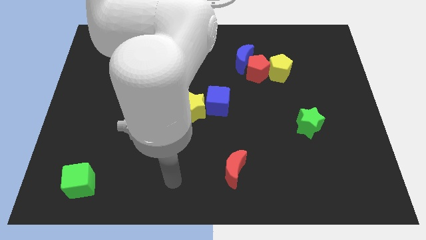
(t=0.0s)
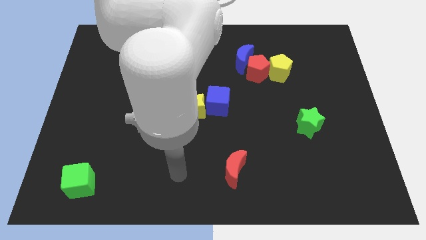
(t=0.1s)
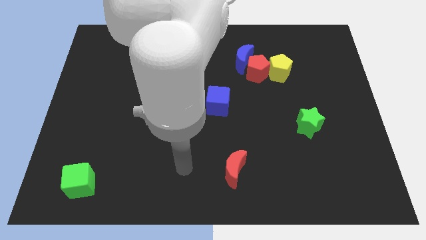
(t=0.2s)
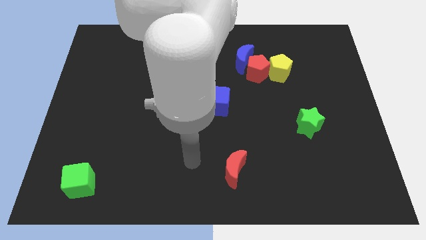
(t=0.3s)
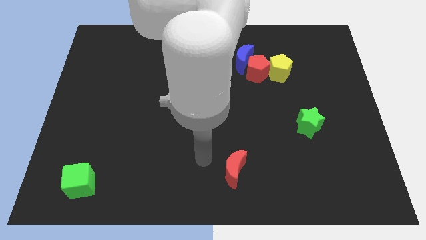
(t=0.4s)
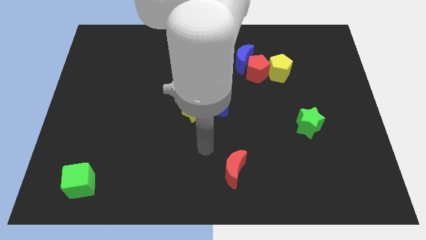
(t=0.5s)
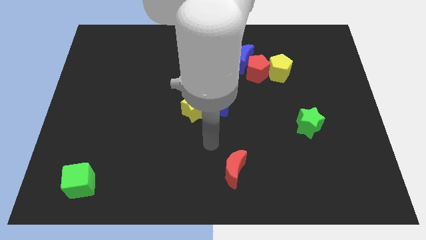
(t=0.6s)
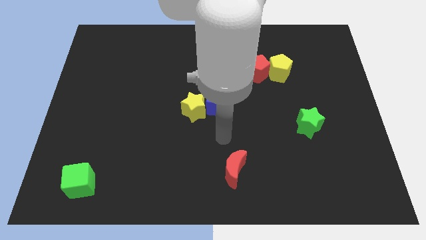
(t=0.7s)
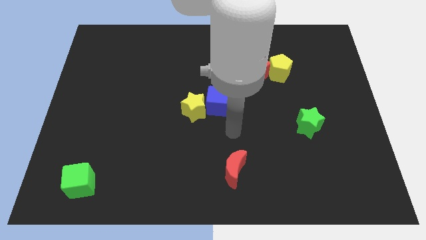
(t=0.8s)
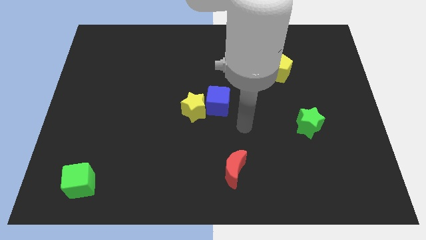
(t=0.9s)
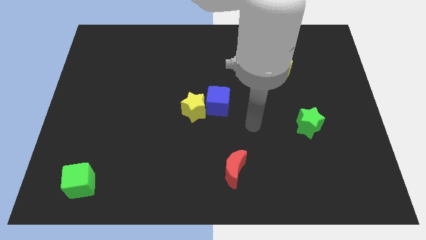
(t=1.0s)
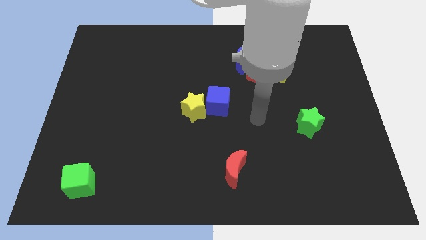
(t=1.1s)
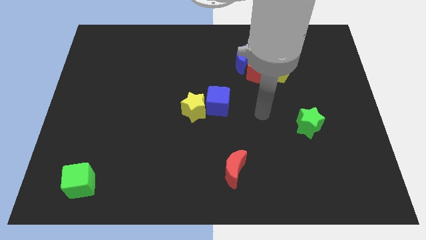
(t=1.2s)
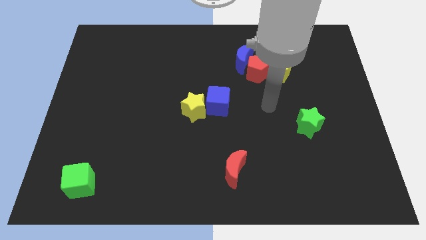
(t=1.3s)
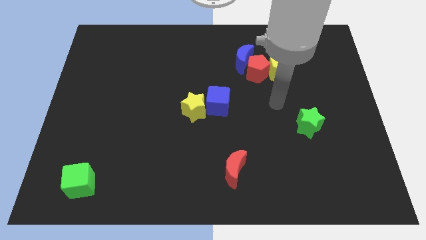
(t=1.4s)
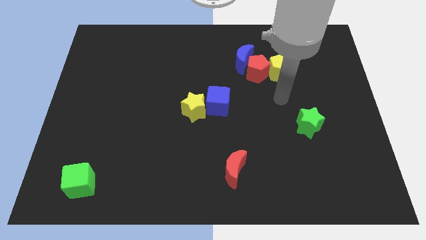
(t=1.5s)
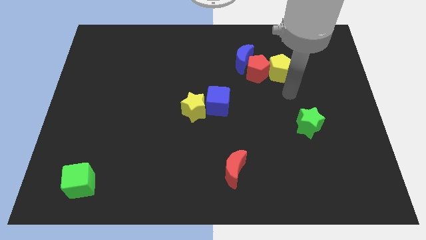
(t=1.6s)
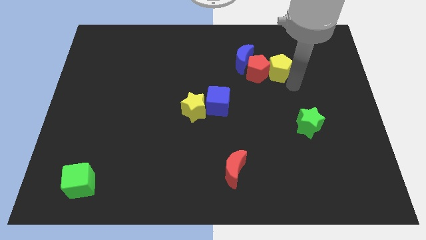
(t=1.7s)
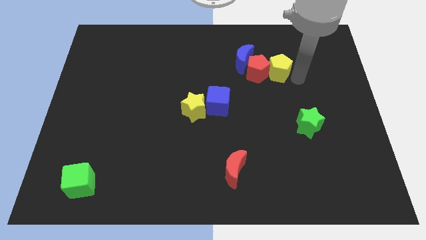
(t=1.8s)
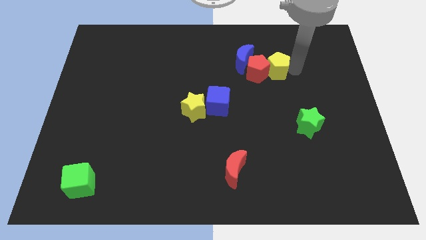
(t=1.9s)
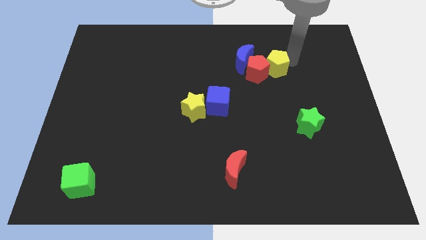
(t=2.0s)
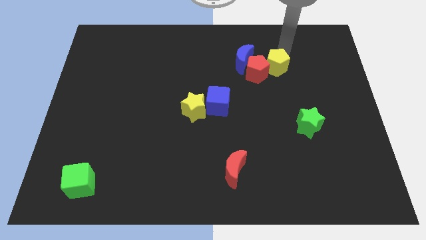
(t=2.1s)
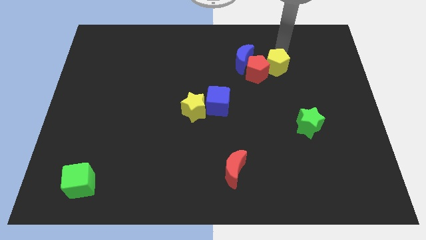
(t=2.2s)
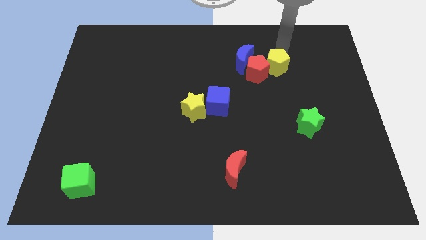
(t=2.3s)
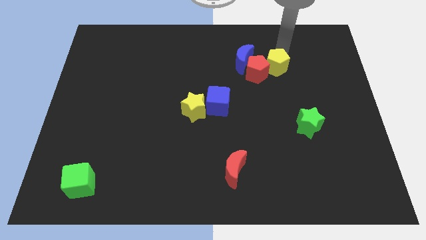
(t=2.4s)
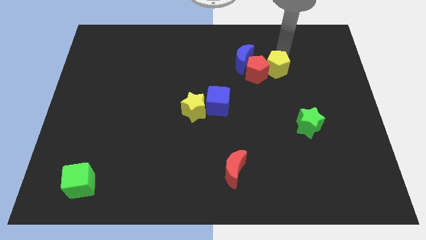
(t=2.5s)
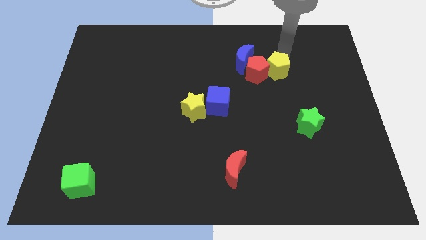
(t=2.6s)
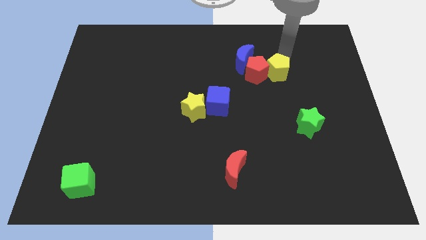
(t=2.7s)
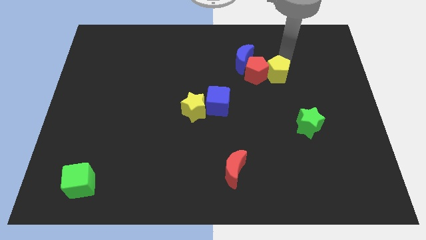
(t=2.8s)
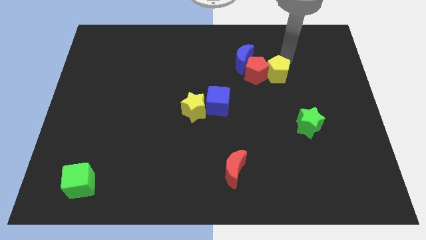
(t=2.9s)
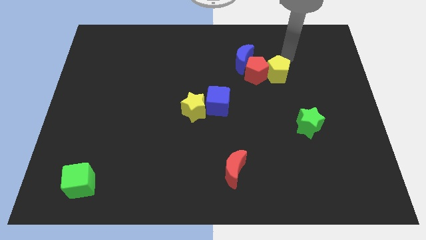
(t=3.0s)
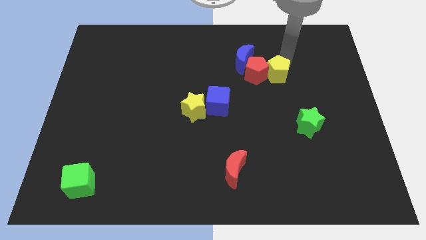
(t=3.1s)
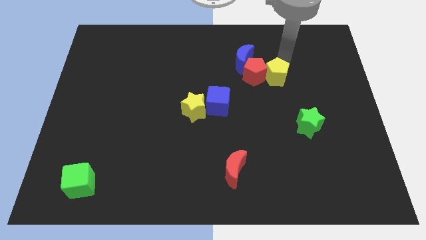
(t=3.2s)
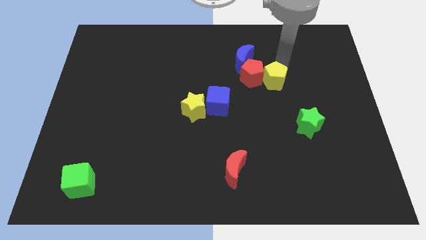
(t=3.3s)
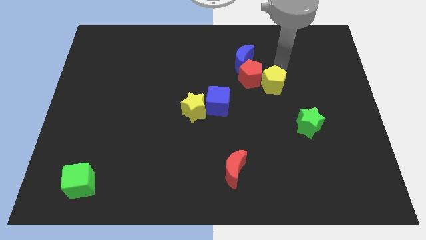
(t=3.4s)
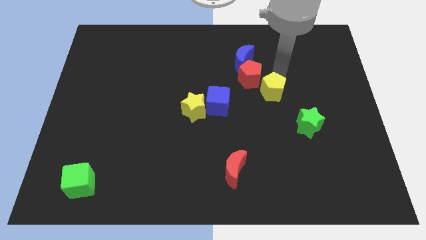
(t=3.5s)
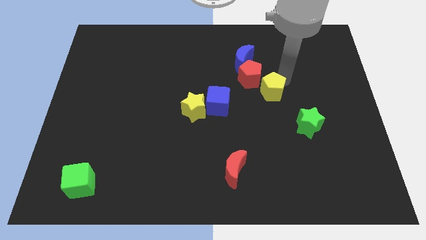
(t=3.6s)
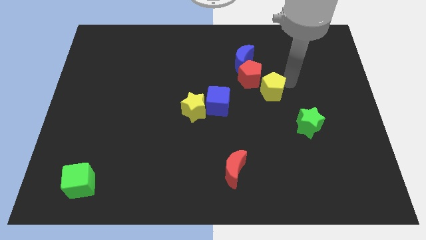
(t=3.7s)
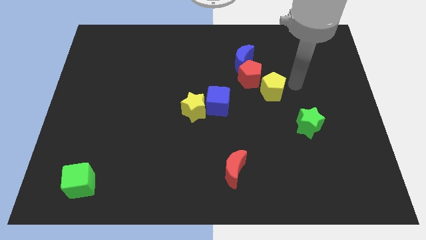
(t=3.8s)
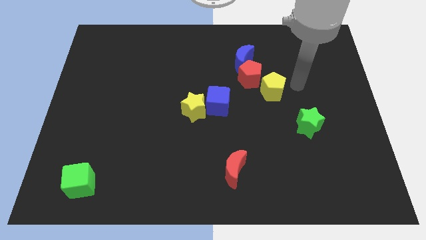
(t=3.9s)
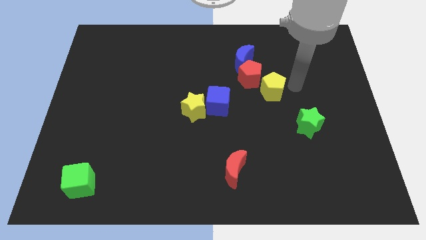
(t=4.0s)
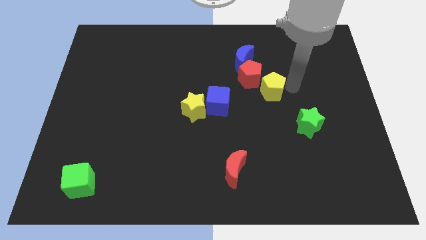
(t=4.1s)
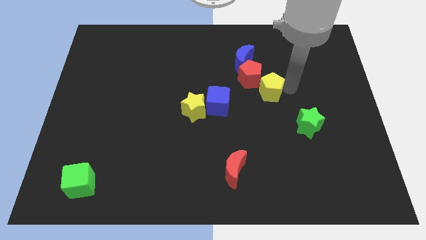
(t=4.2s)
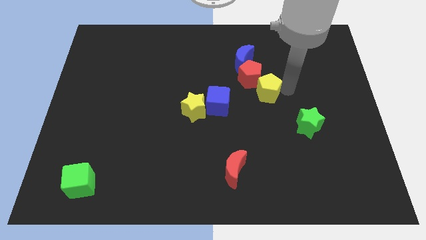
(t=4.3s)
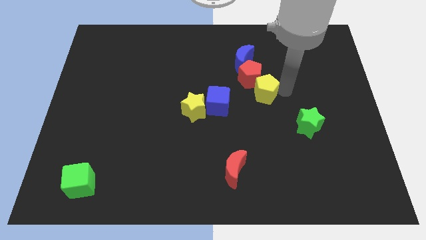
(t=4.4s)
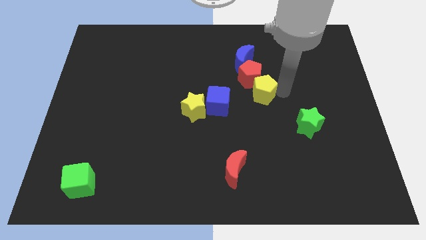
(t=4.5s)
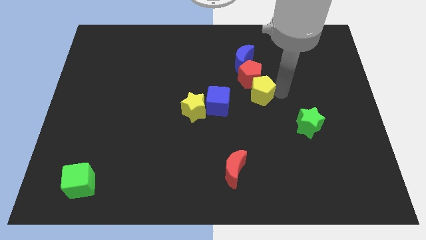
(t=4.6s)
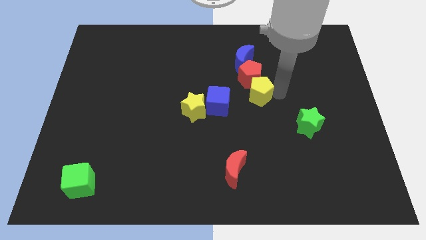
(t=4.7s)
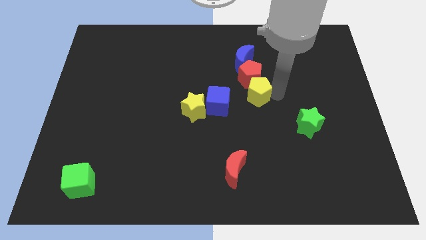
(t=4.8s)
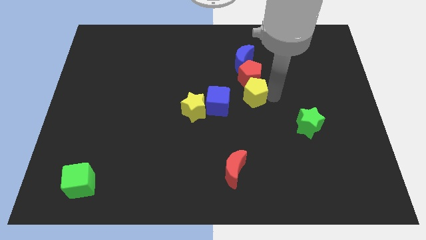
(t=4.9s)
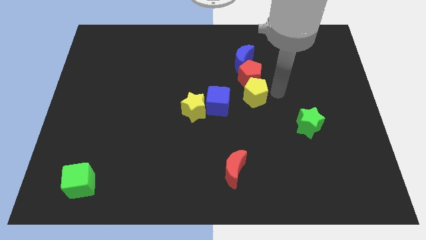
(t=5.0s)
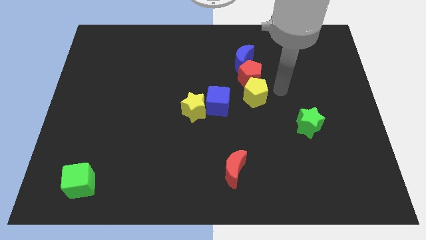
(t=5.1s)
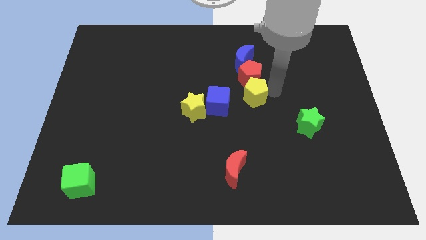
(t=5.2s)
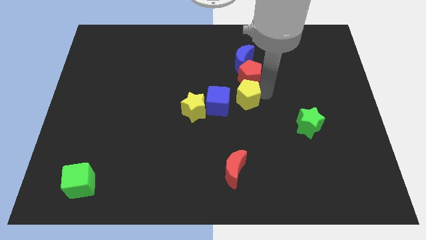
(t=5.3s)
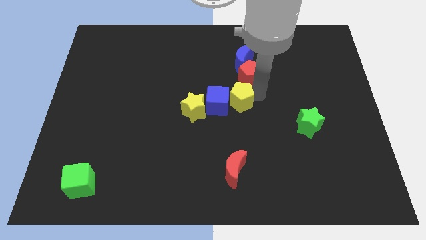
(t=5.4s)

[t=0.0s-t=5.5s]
put the yellow pentagon to the blue cube
